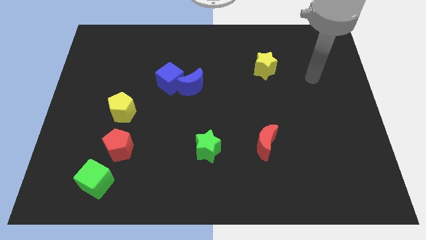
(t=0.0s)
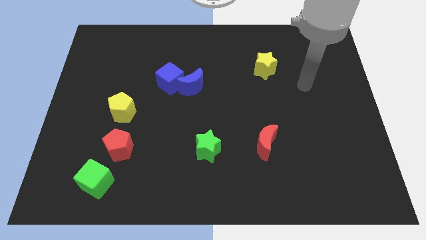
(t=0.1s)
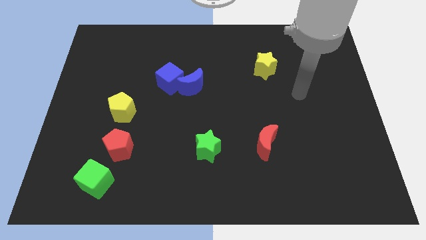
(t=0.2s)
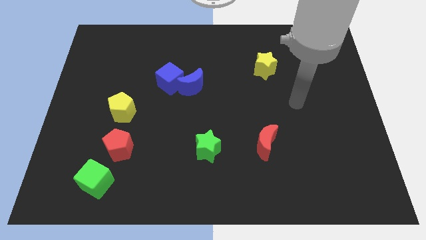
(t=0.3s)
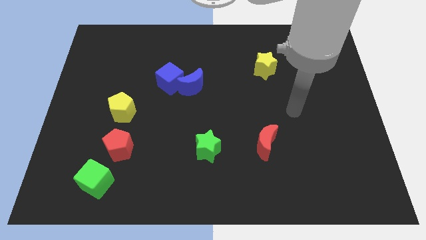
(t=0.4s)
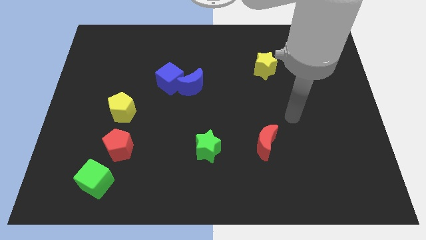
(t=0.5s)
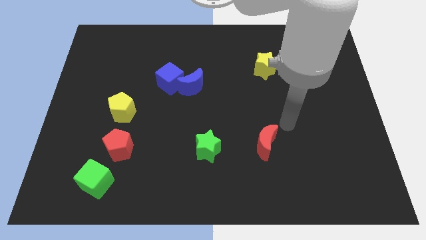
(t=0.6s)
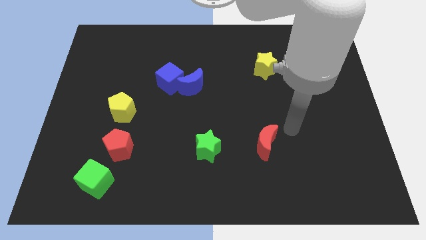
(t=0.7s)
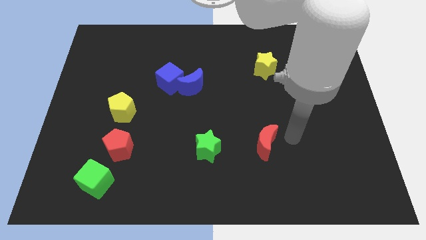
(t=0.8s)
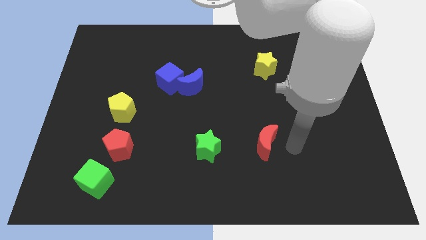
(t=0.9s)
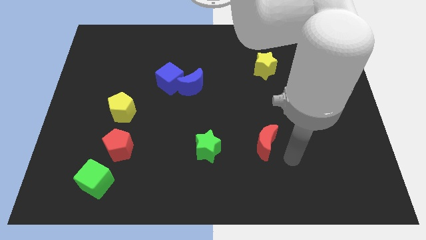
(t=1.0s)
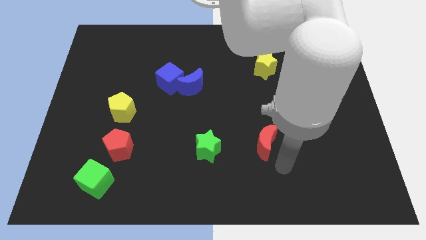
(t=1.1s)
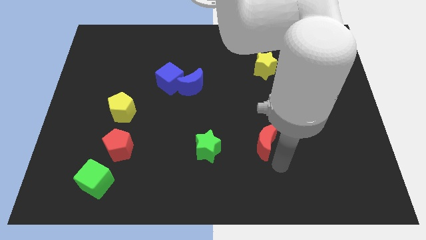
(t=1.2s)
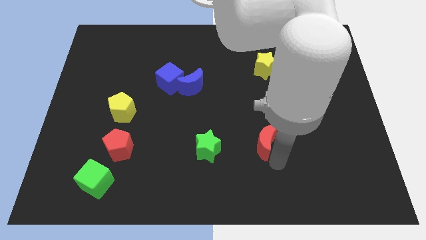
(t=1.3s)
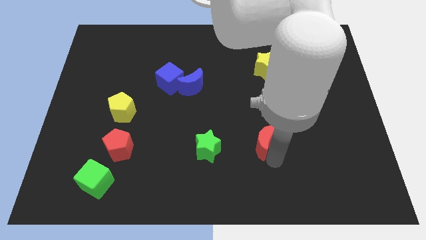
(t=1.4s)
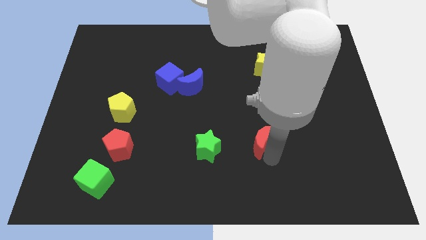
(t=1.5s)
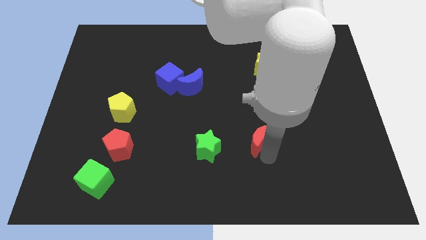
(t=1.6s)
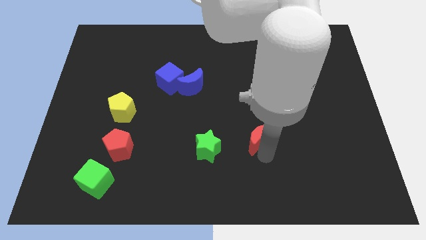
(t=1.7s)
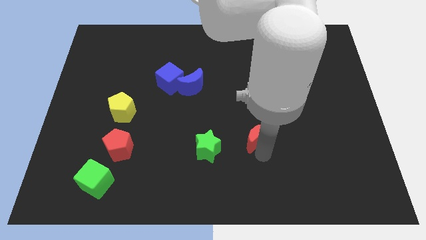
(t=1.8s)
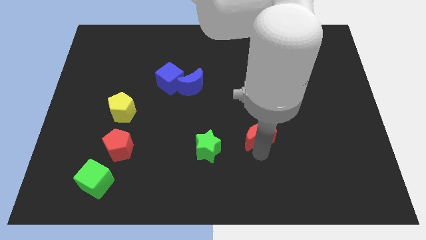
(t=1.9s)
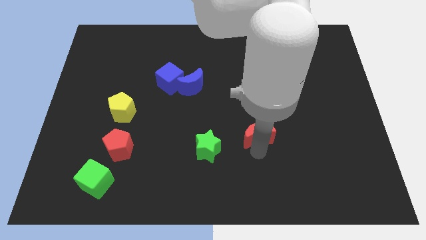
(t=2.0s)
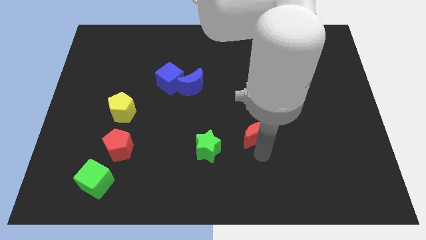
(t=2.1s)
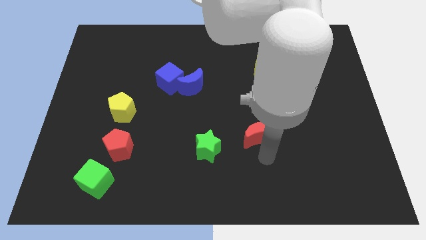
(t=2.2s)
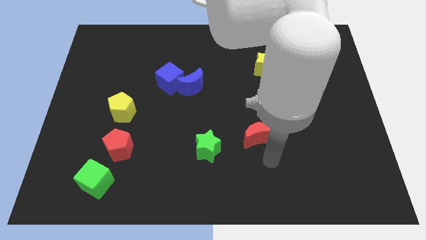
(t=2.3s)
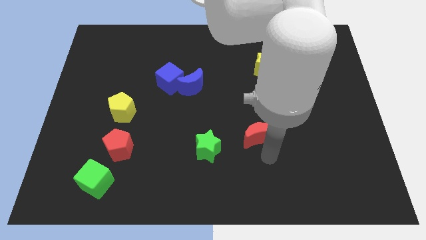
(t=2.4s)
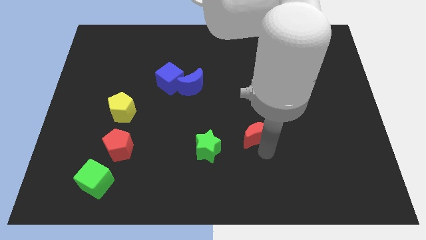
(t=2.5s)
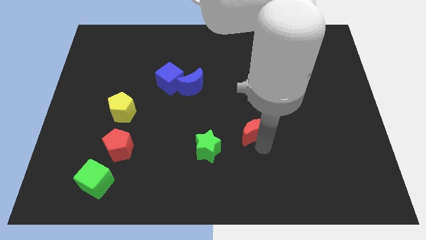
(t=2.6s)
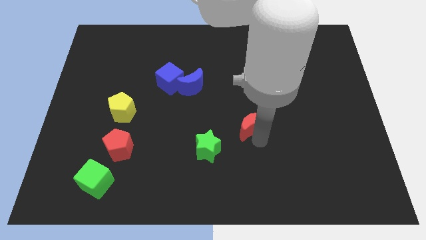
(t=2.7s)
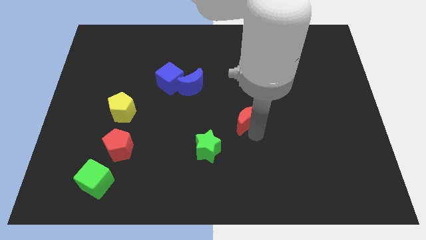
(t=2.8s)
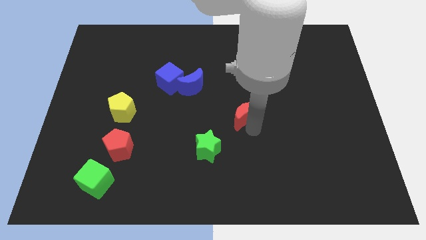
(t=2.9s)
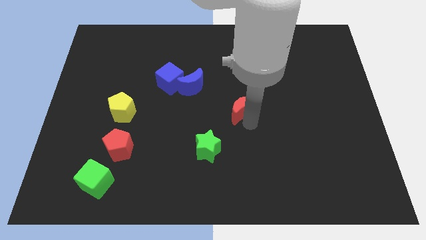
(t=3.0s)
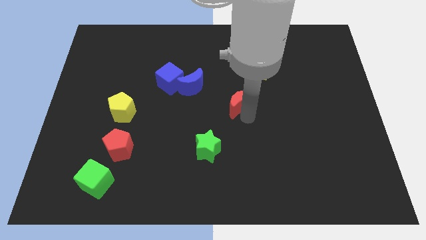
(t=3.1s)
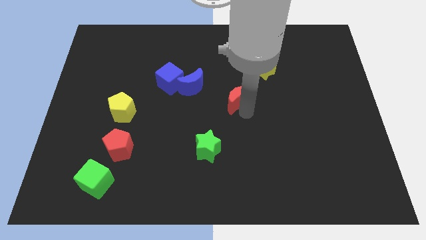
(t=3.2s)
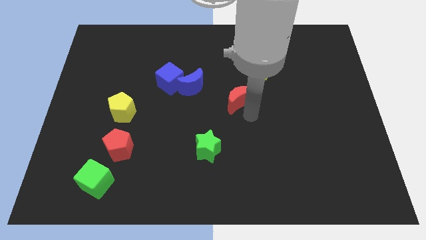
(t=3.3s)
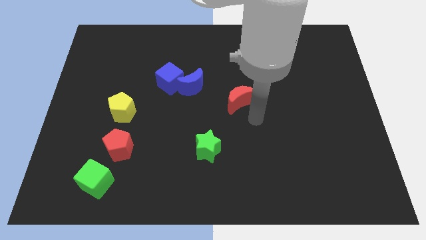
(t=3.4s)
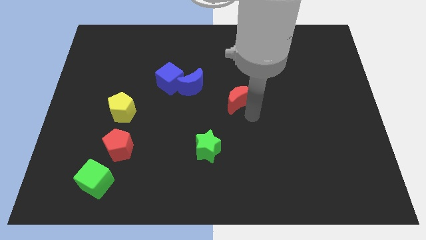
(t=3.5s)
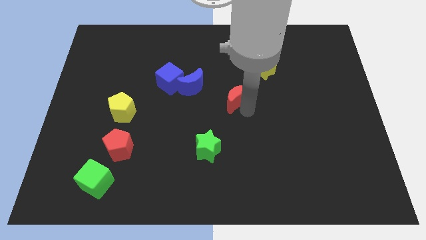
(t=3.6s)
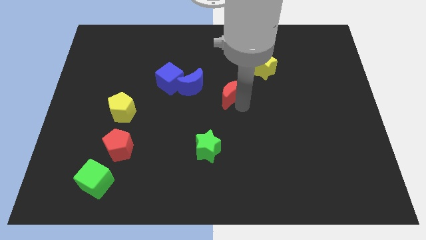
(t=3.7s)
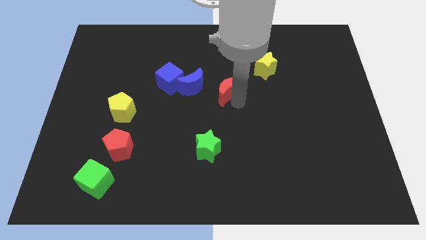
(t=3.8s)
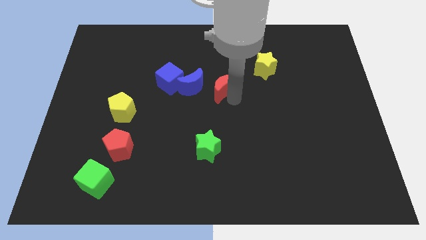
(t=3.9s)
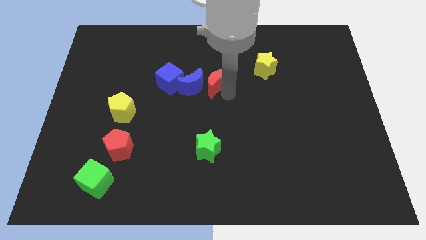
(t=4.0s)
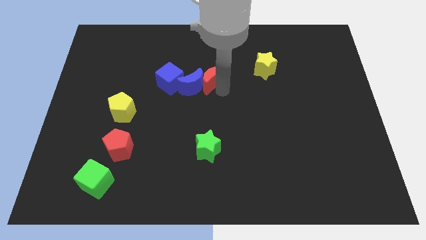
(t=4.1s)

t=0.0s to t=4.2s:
move the red moon upwards and left diagonally

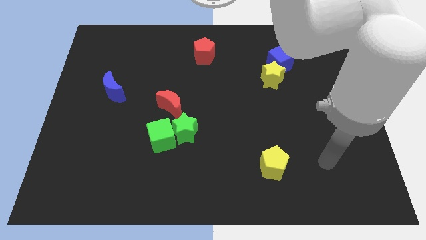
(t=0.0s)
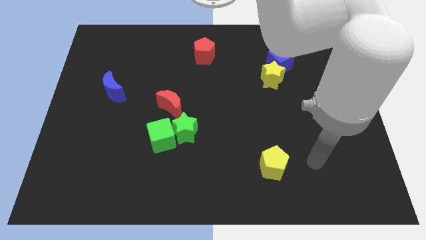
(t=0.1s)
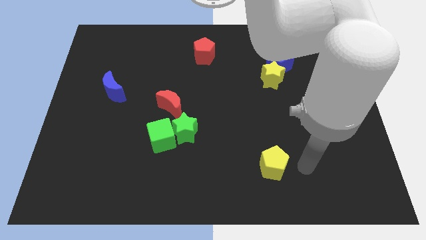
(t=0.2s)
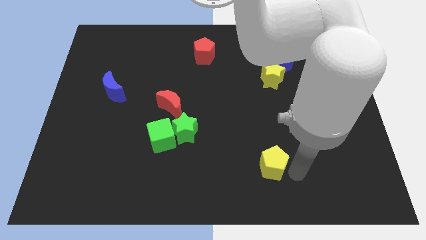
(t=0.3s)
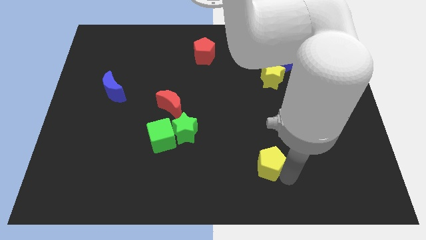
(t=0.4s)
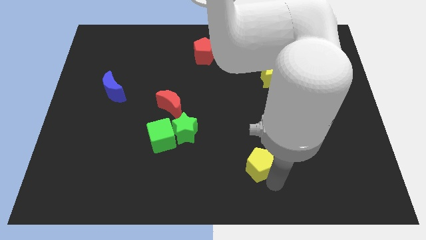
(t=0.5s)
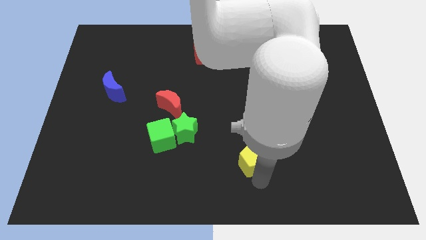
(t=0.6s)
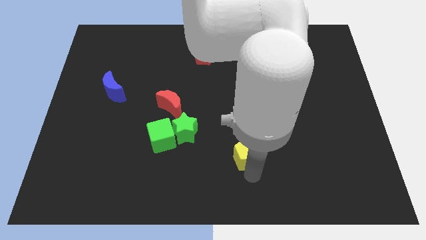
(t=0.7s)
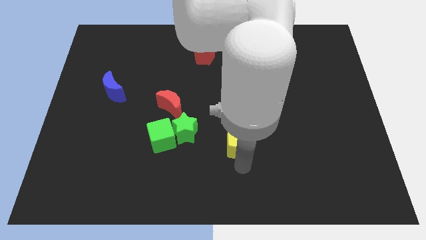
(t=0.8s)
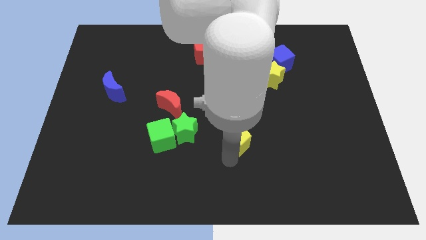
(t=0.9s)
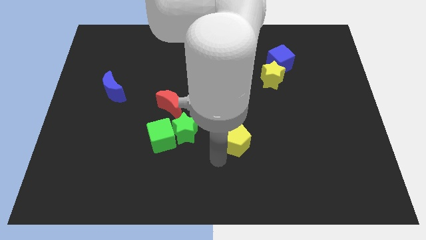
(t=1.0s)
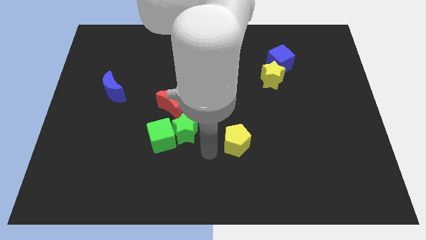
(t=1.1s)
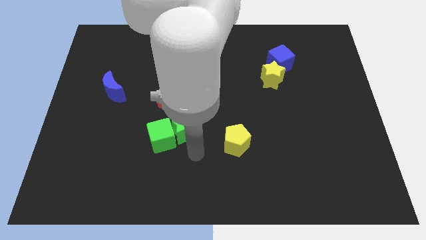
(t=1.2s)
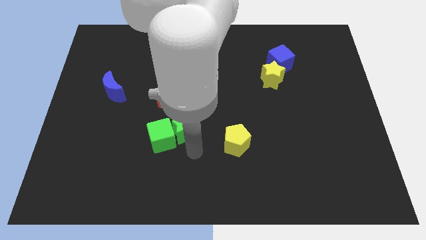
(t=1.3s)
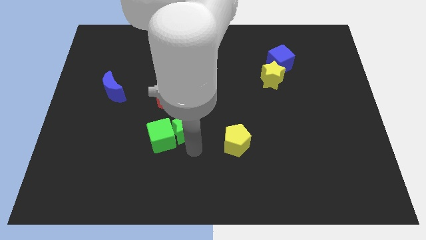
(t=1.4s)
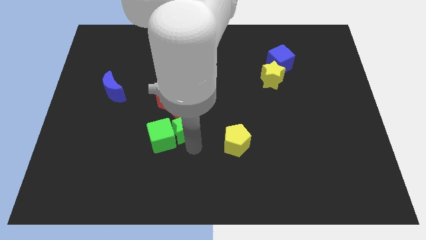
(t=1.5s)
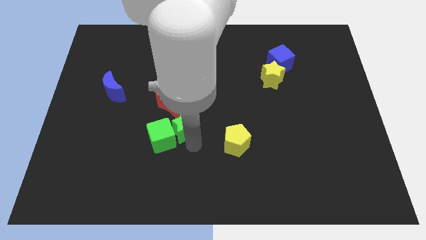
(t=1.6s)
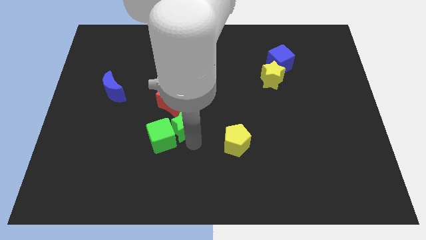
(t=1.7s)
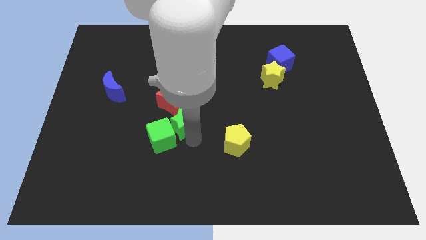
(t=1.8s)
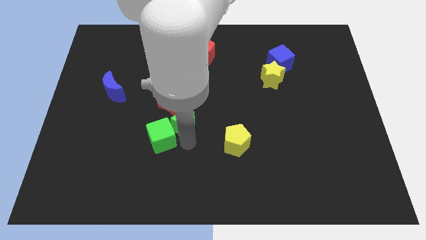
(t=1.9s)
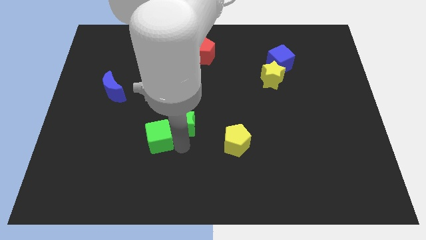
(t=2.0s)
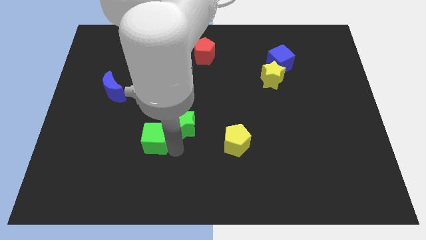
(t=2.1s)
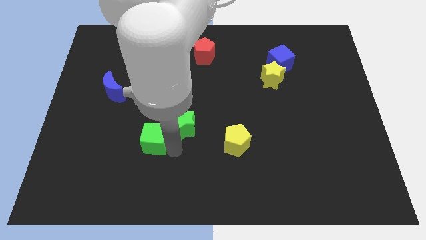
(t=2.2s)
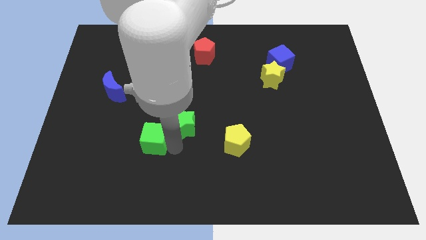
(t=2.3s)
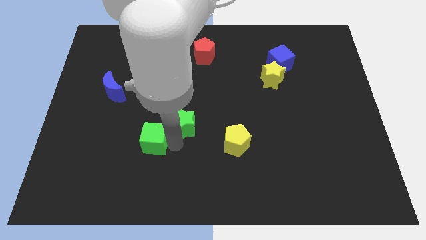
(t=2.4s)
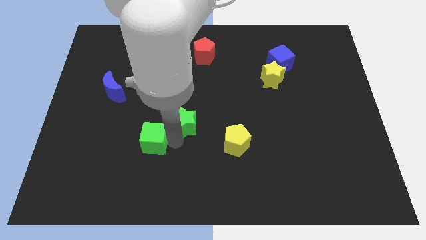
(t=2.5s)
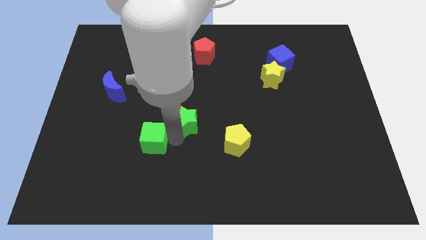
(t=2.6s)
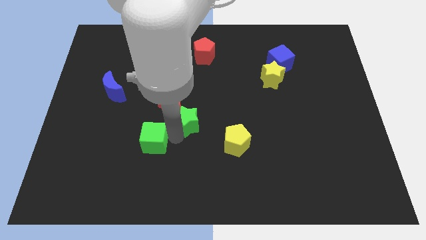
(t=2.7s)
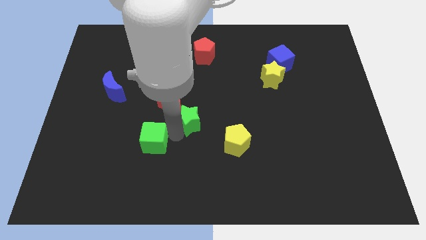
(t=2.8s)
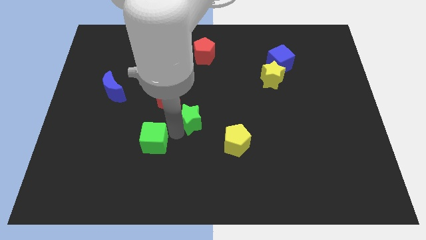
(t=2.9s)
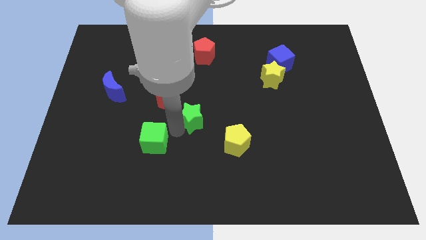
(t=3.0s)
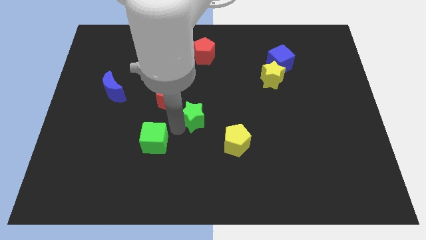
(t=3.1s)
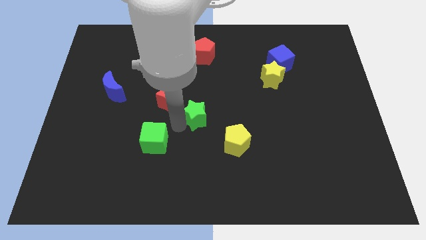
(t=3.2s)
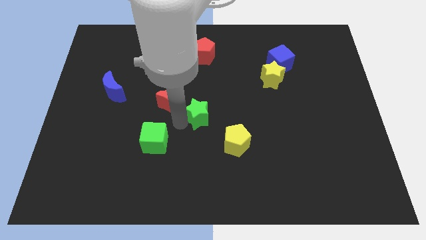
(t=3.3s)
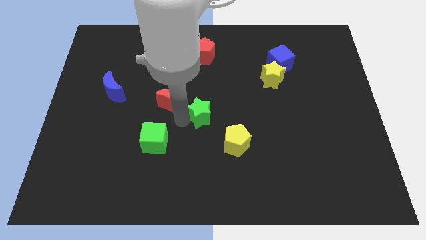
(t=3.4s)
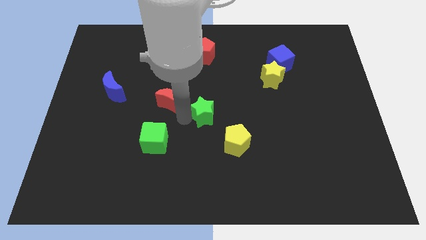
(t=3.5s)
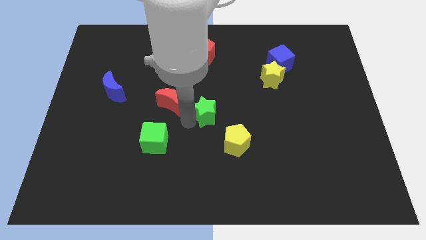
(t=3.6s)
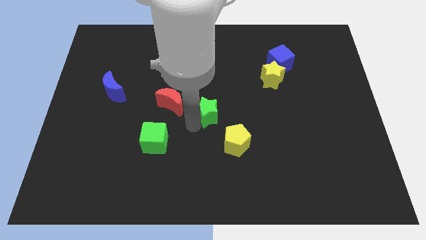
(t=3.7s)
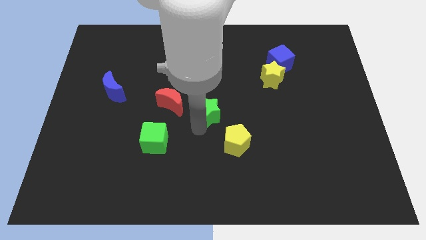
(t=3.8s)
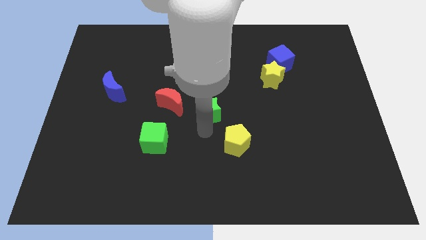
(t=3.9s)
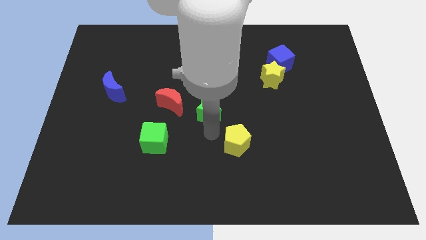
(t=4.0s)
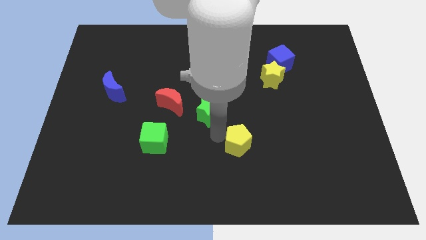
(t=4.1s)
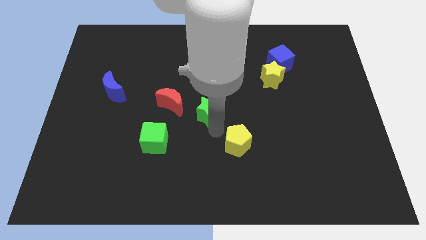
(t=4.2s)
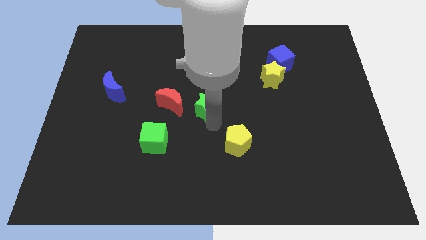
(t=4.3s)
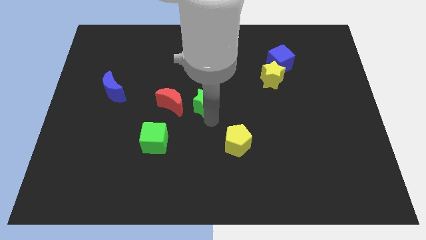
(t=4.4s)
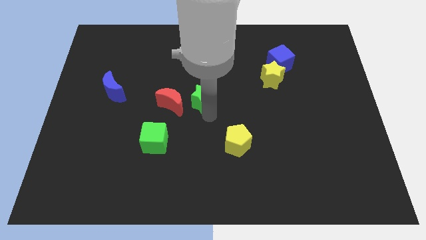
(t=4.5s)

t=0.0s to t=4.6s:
slide the green star a little upwards

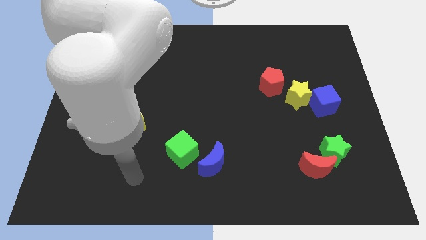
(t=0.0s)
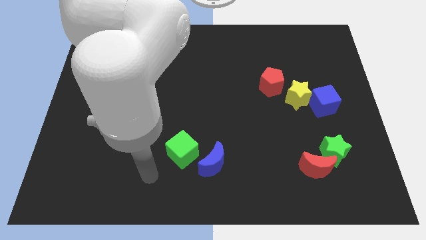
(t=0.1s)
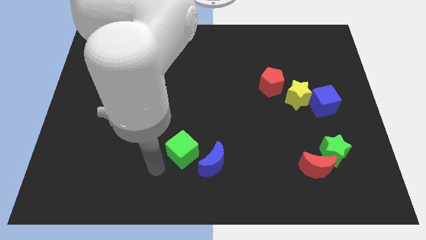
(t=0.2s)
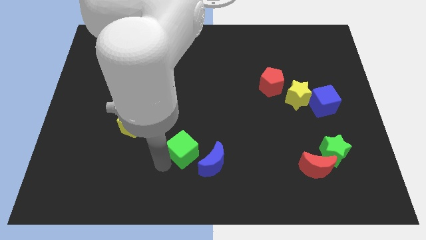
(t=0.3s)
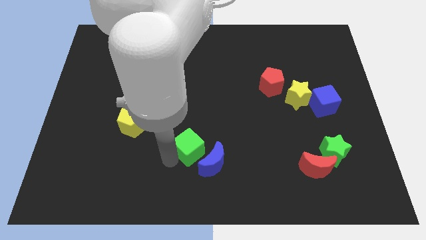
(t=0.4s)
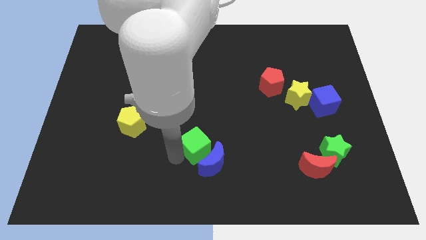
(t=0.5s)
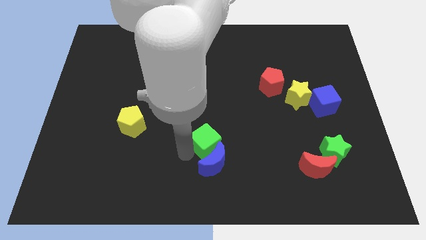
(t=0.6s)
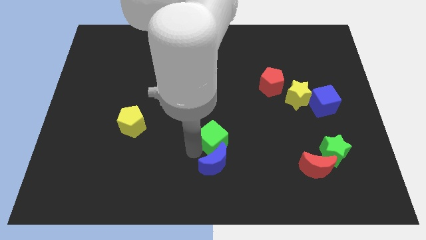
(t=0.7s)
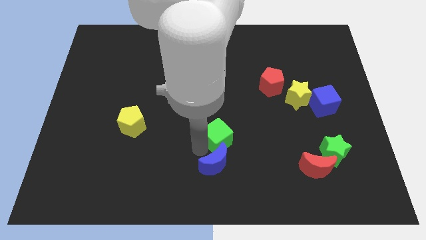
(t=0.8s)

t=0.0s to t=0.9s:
move the green cube slightly up and right
